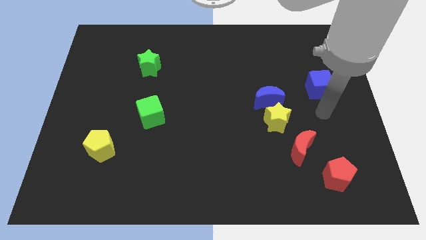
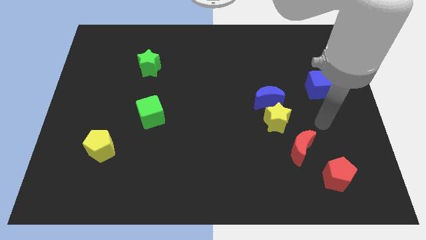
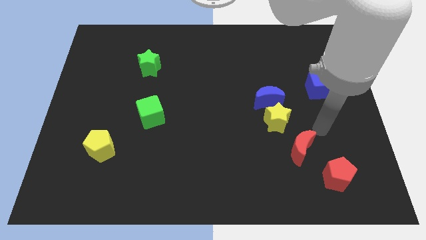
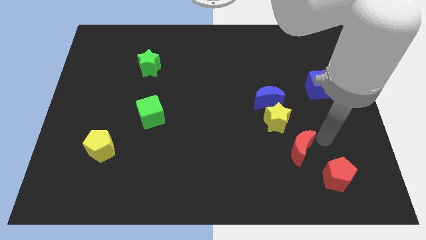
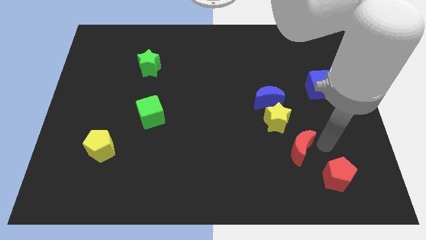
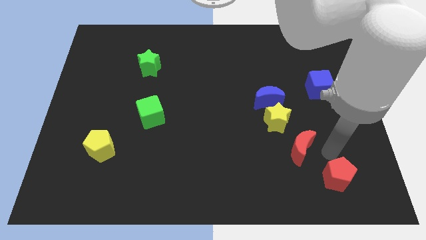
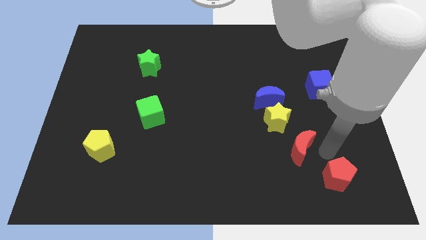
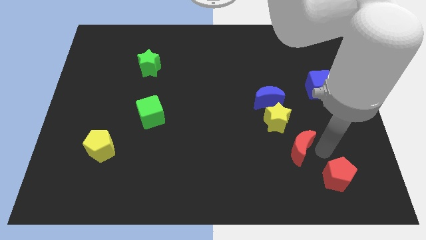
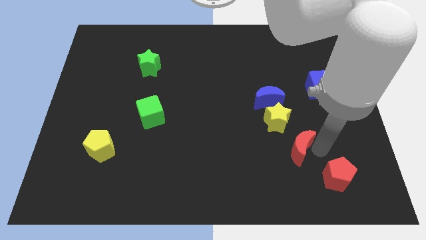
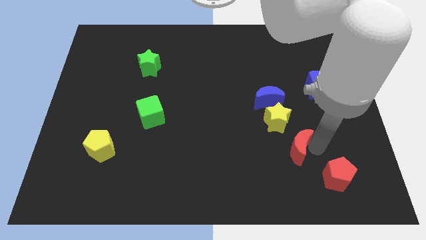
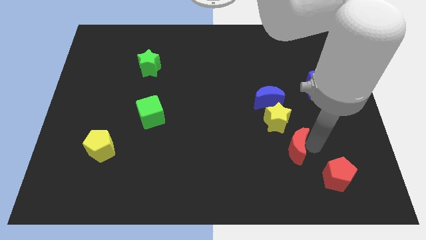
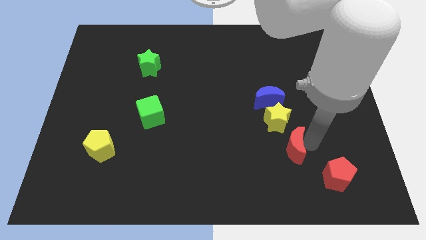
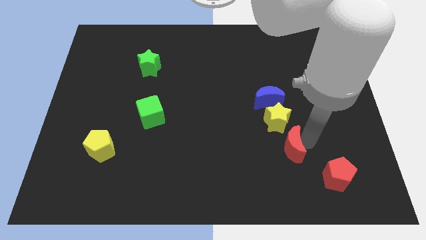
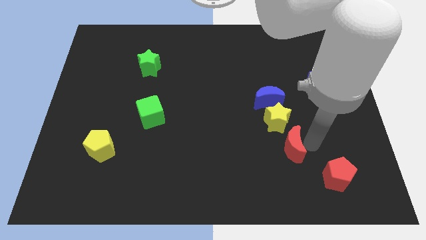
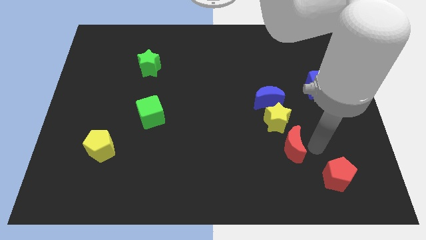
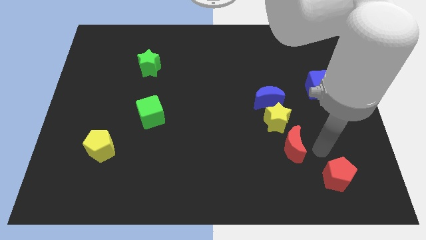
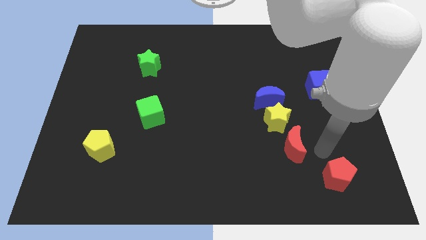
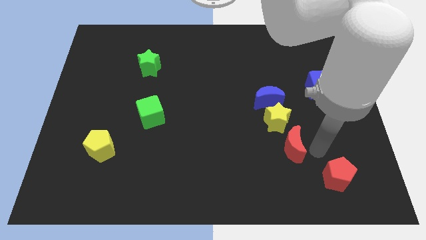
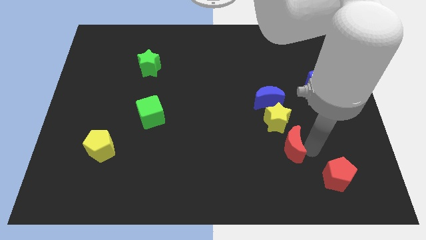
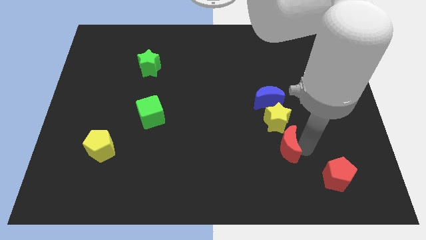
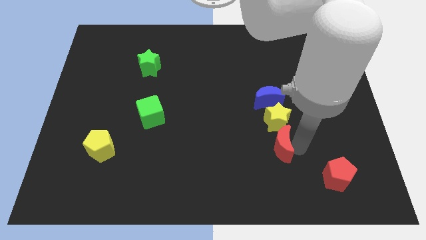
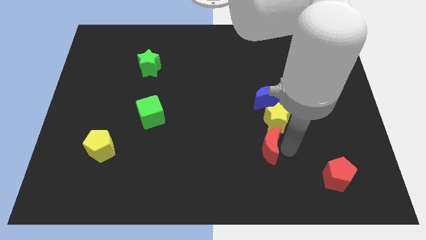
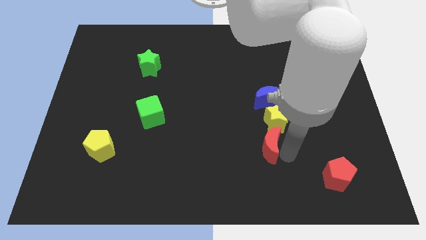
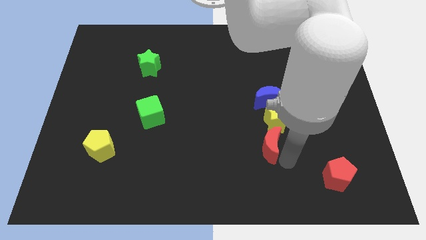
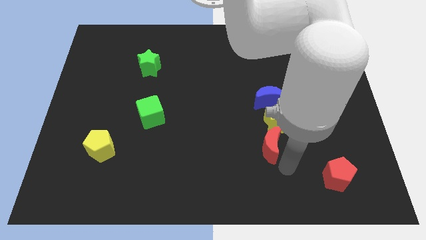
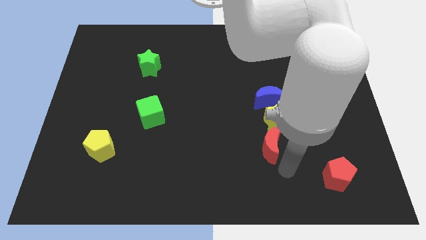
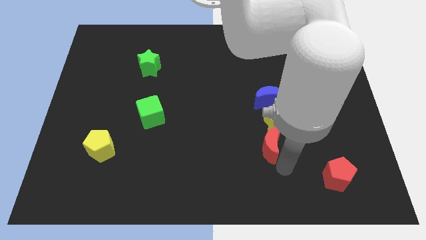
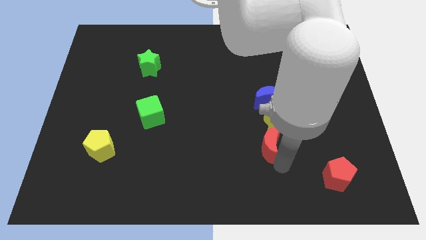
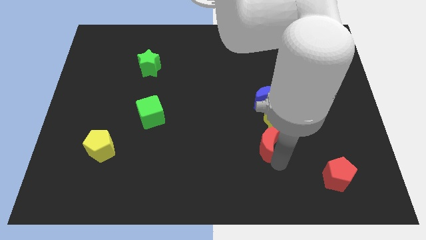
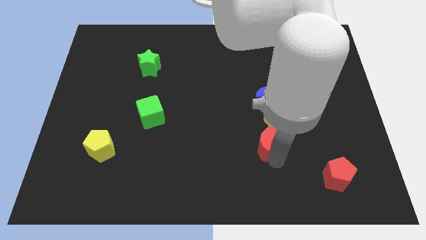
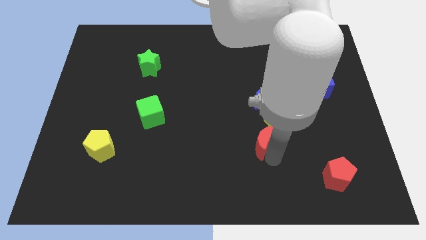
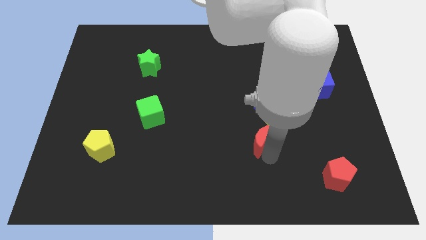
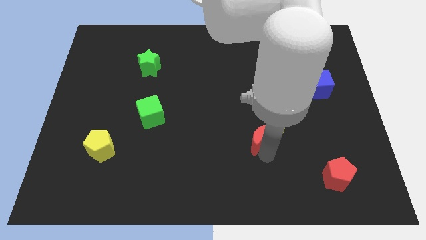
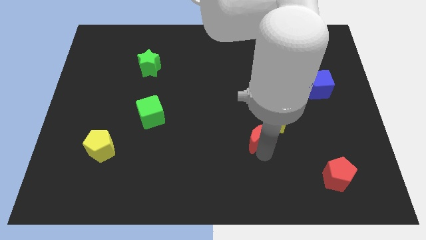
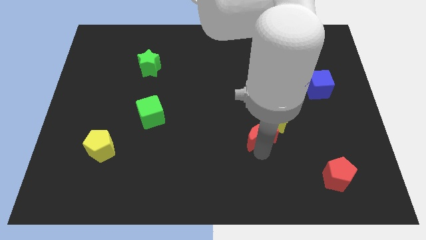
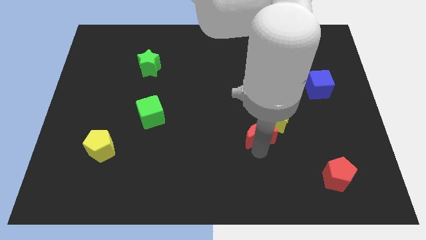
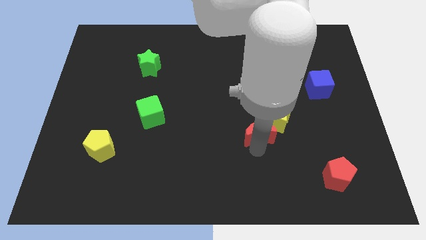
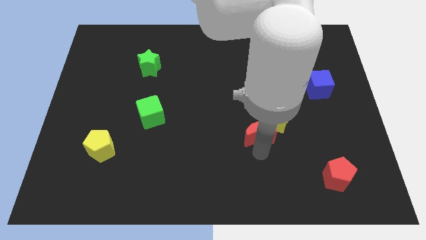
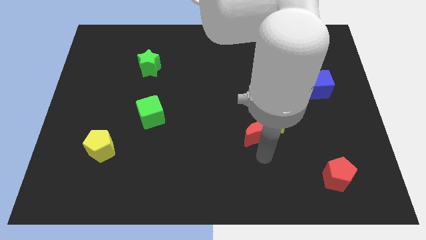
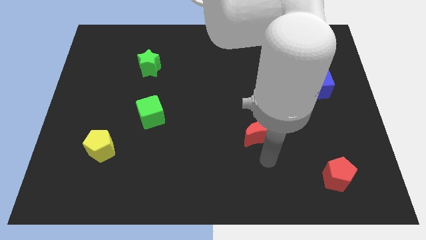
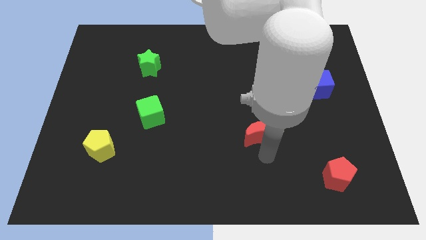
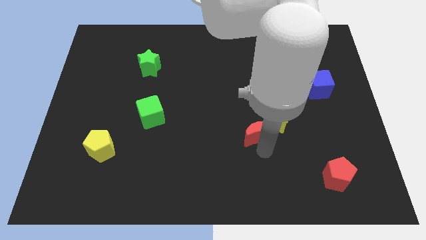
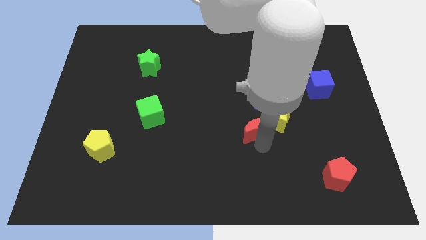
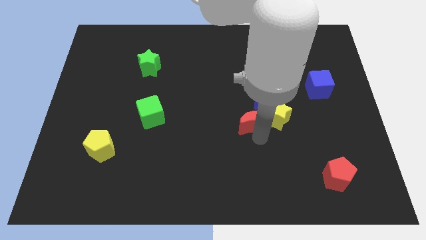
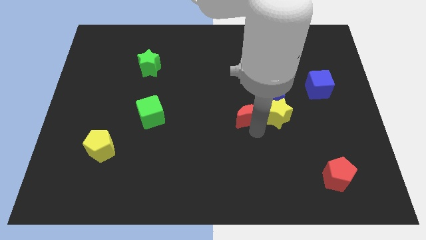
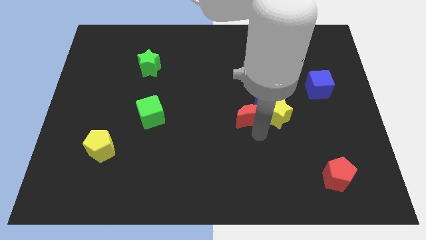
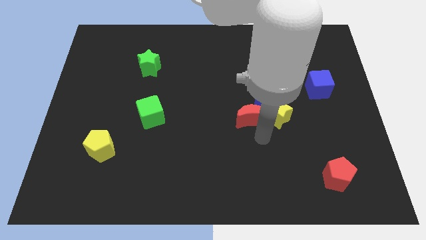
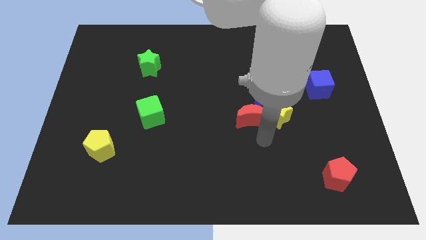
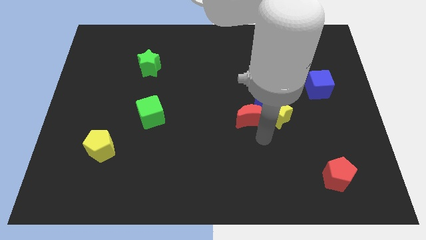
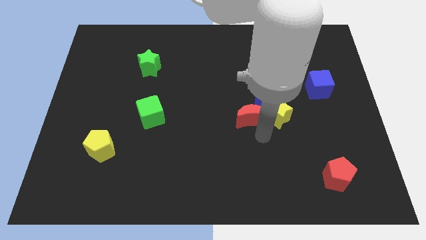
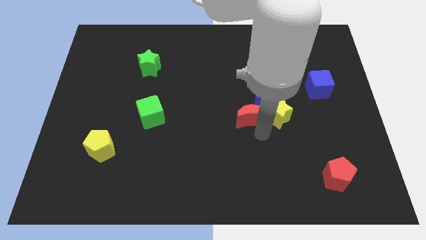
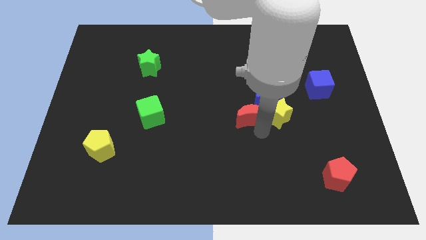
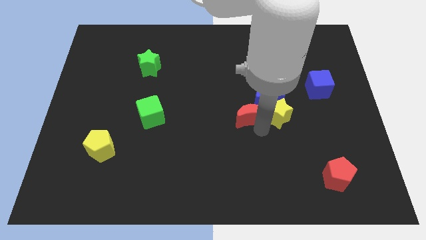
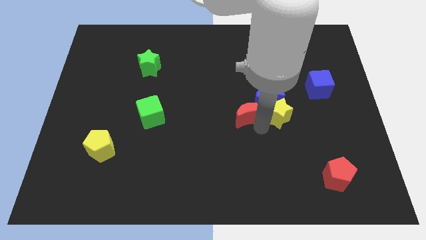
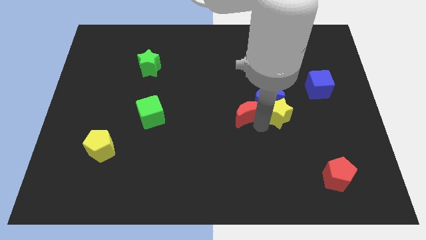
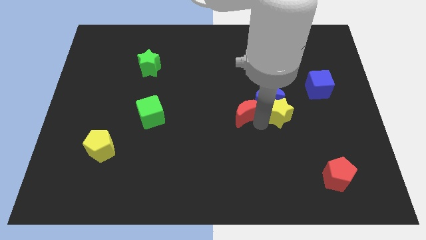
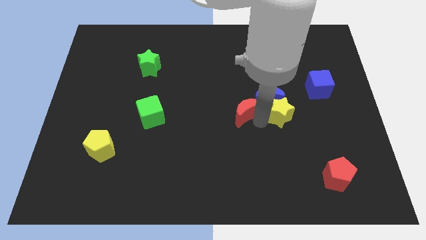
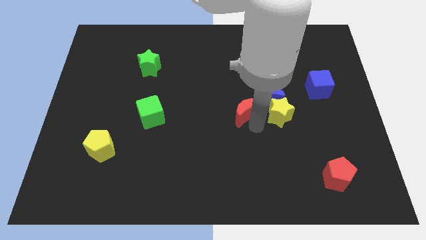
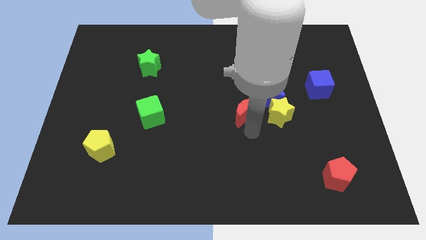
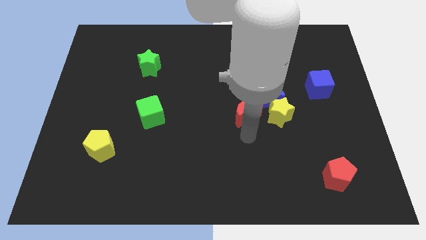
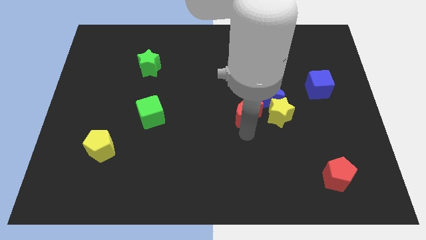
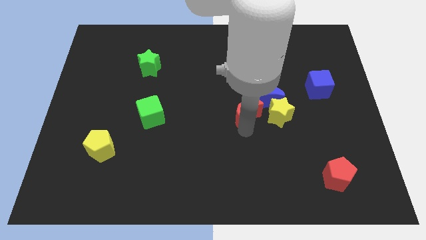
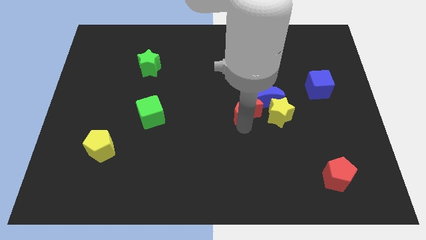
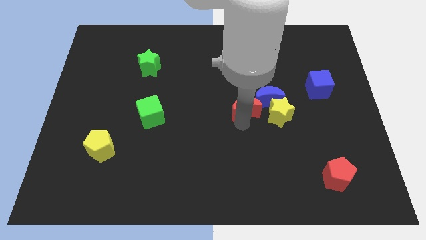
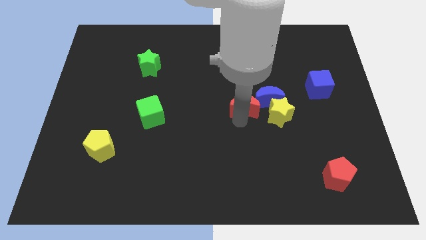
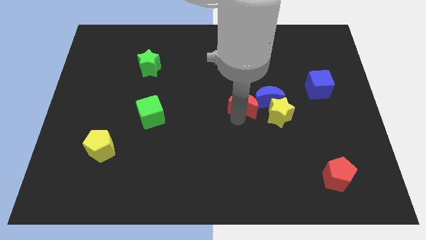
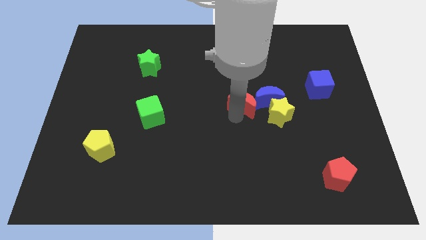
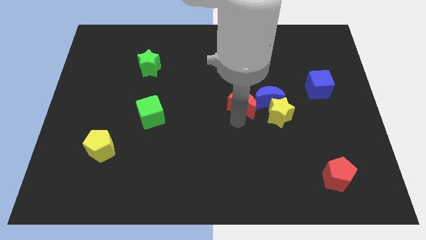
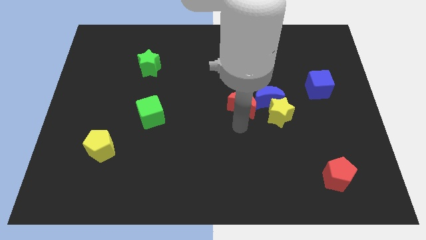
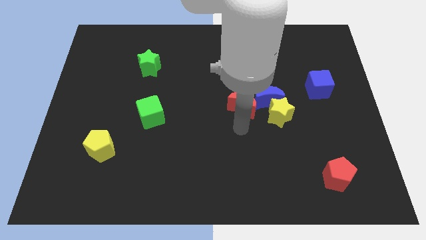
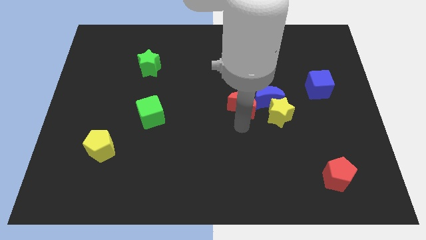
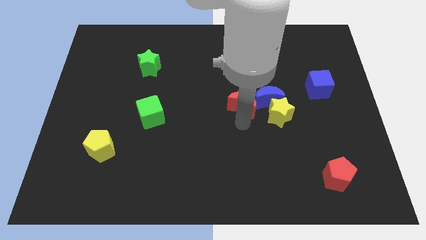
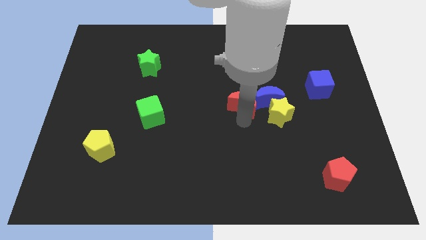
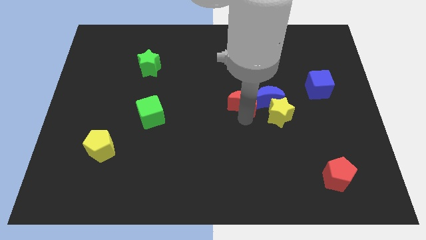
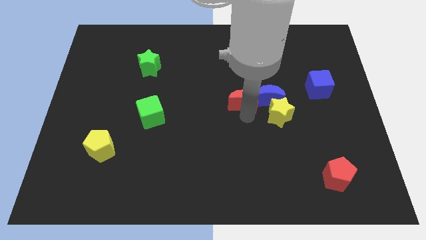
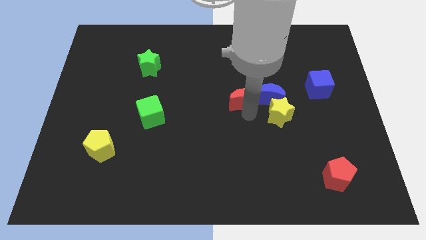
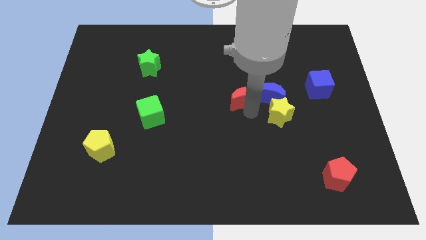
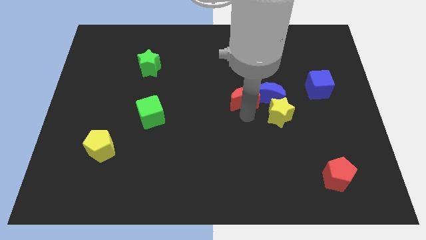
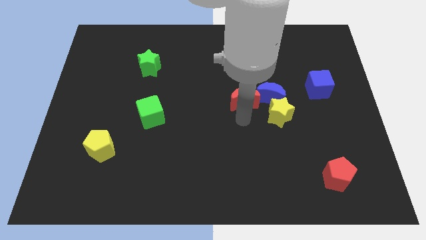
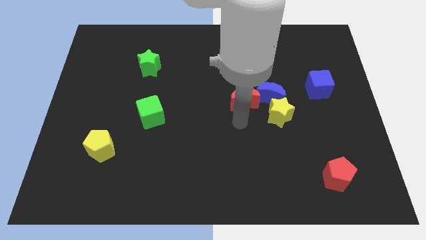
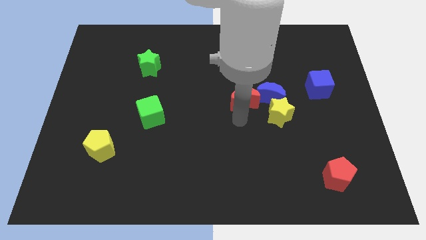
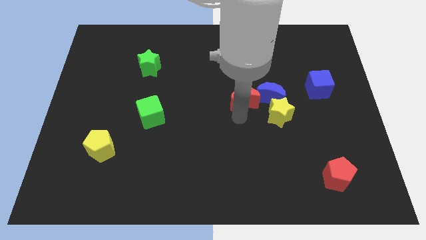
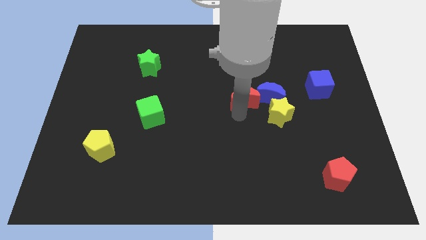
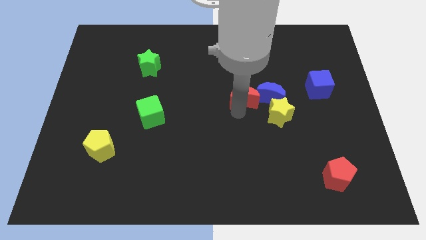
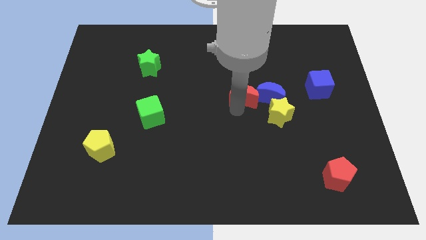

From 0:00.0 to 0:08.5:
put the red moon diagonally up and to the left of the blue moon
